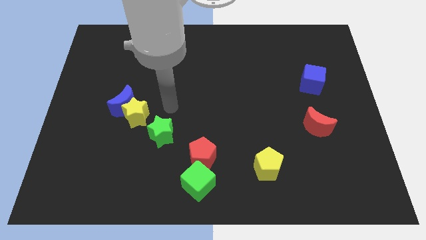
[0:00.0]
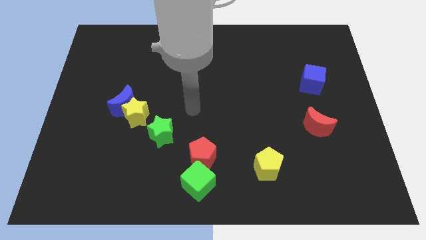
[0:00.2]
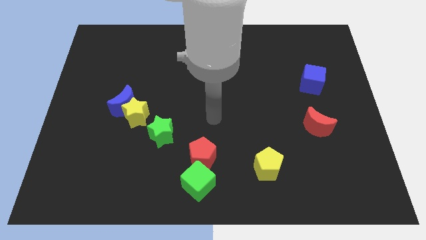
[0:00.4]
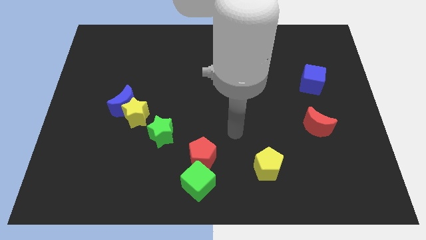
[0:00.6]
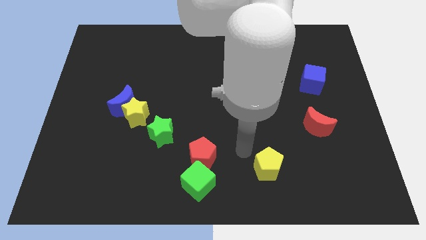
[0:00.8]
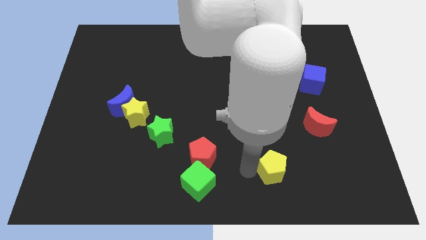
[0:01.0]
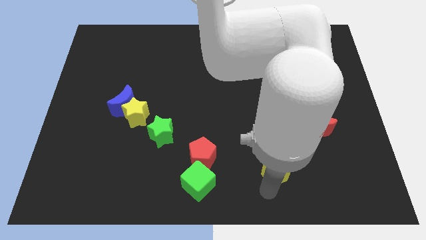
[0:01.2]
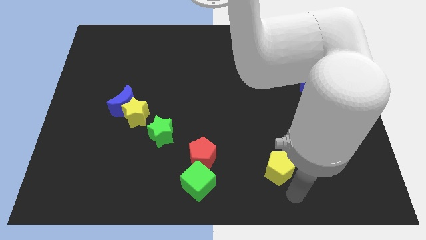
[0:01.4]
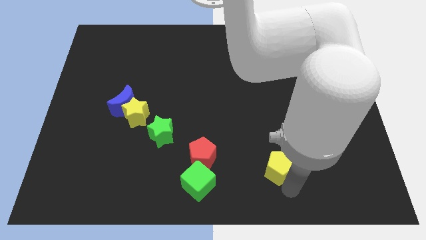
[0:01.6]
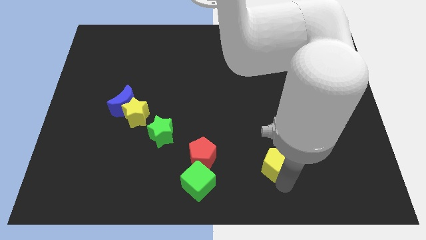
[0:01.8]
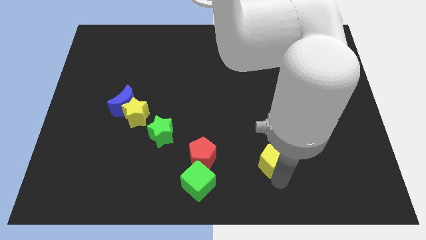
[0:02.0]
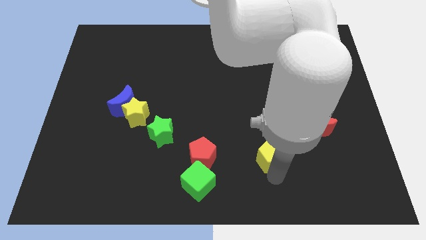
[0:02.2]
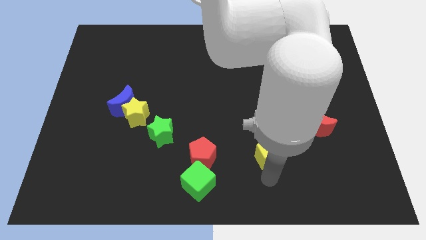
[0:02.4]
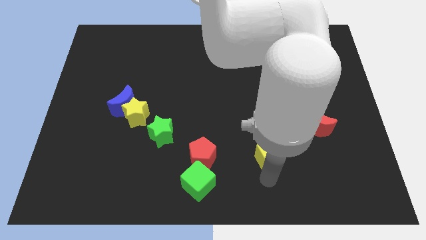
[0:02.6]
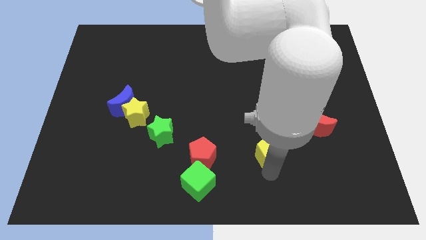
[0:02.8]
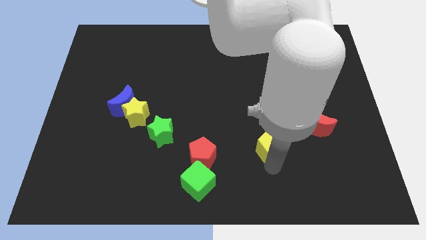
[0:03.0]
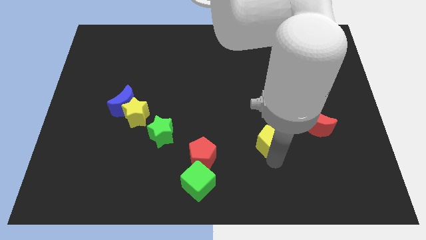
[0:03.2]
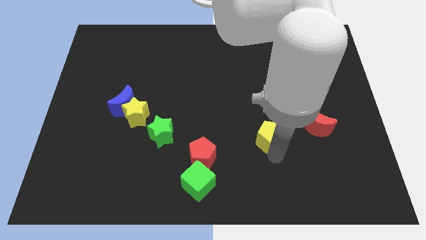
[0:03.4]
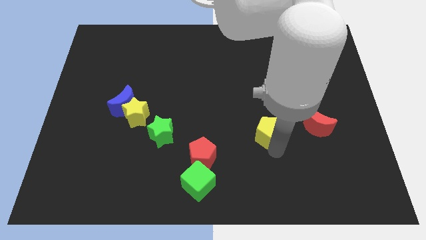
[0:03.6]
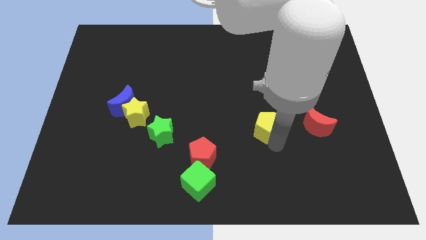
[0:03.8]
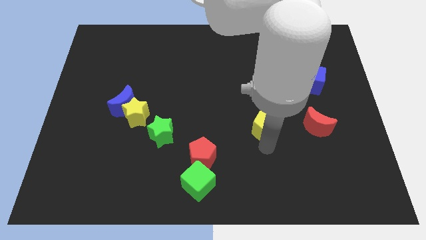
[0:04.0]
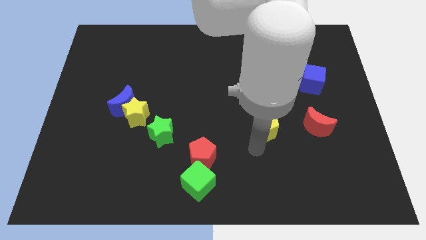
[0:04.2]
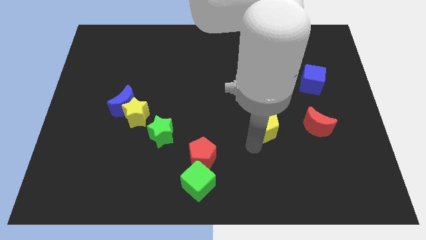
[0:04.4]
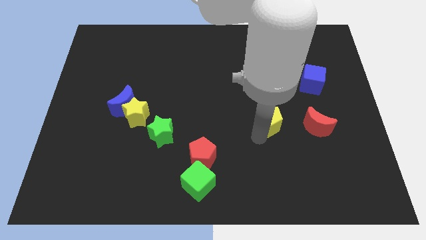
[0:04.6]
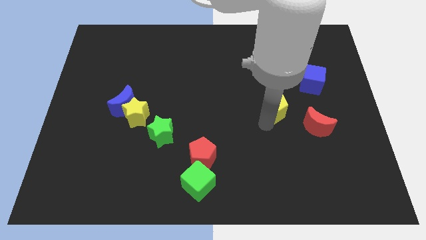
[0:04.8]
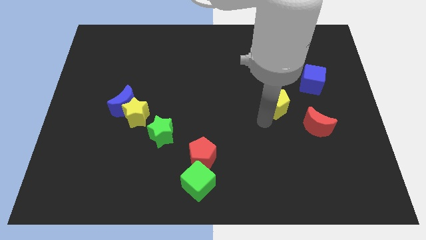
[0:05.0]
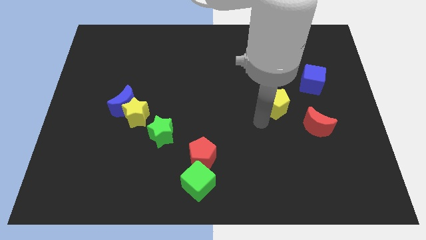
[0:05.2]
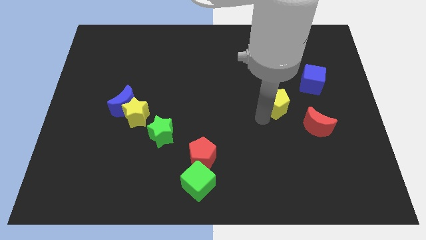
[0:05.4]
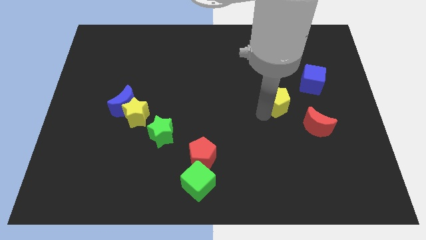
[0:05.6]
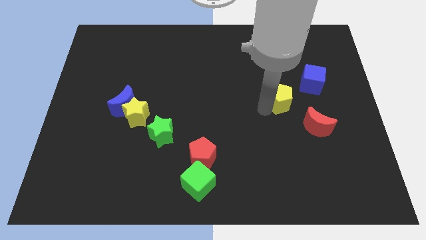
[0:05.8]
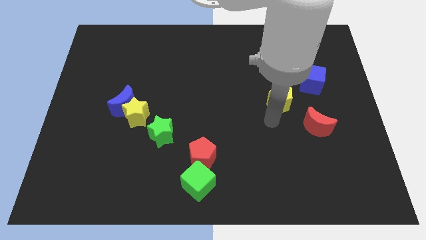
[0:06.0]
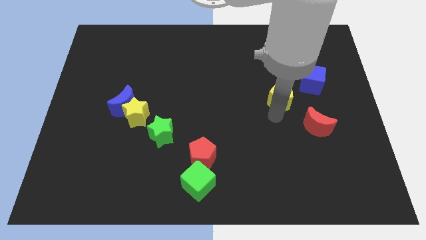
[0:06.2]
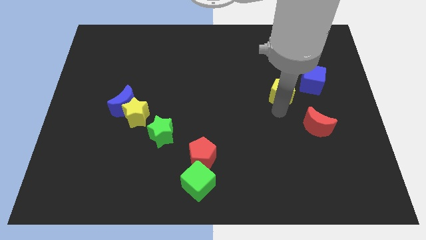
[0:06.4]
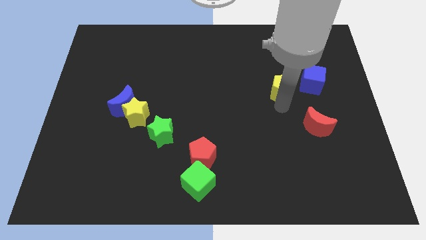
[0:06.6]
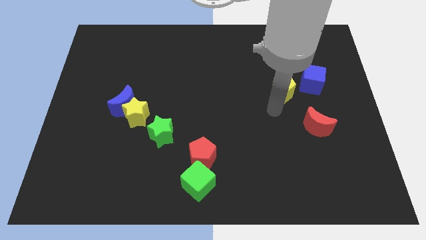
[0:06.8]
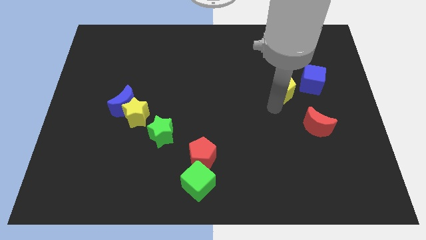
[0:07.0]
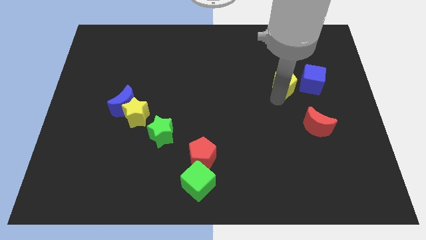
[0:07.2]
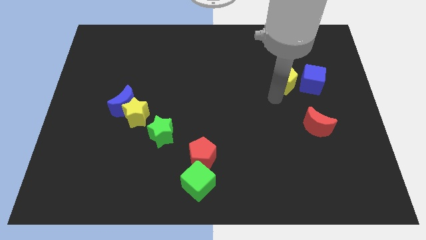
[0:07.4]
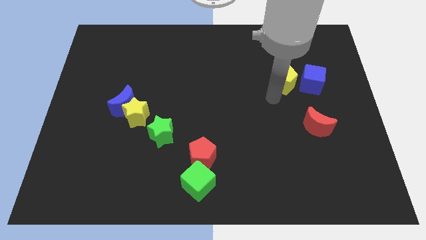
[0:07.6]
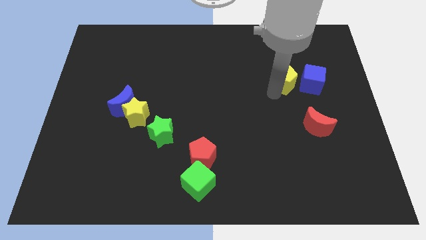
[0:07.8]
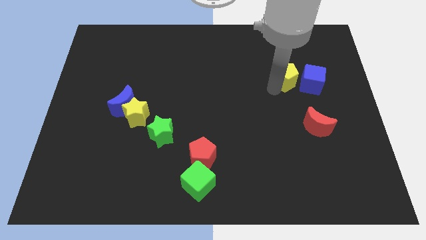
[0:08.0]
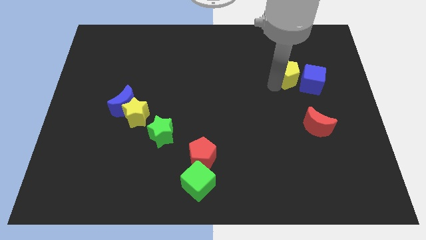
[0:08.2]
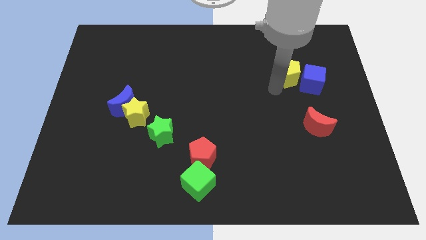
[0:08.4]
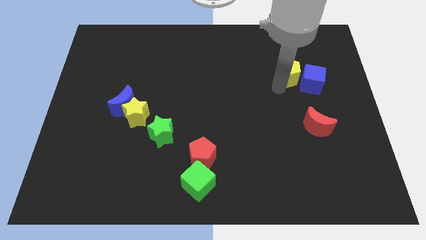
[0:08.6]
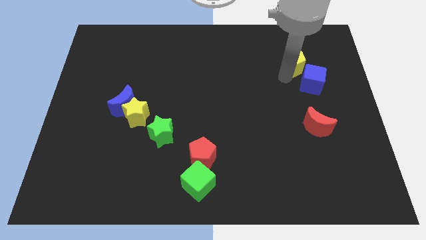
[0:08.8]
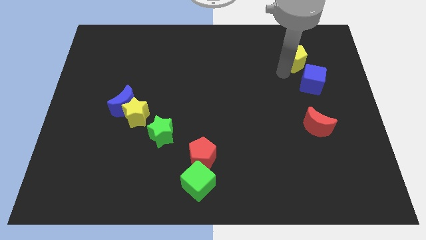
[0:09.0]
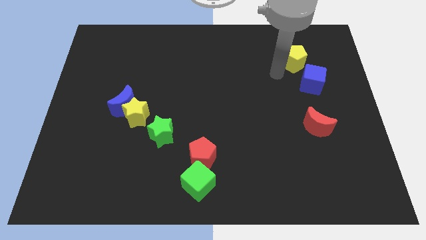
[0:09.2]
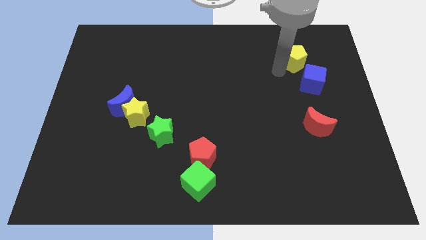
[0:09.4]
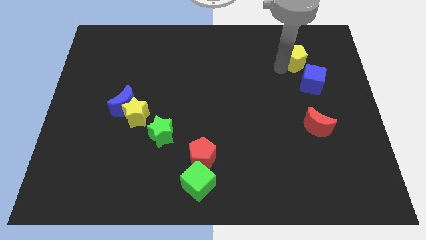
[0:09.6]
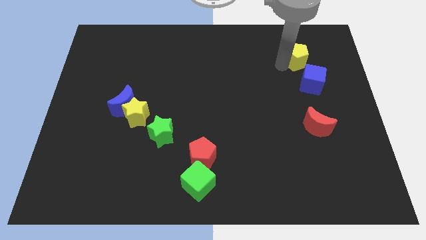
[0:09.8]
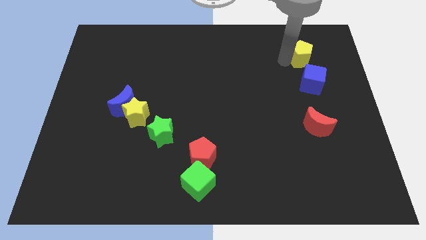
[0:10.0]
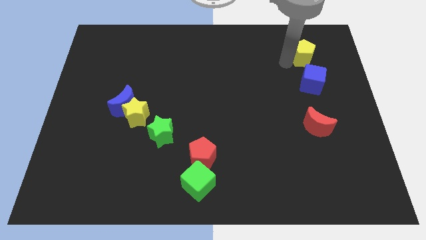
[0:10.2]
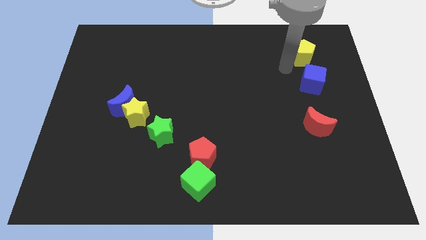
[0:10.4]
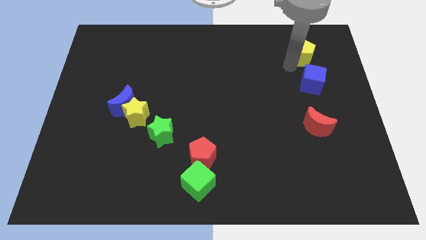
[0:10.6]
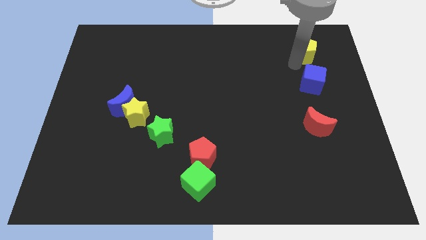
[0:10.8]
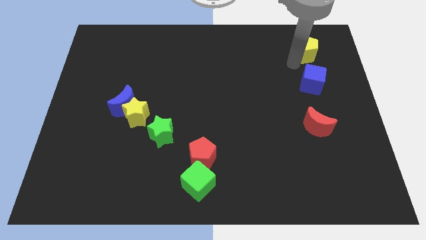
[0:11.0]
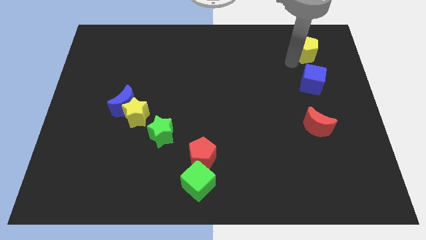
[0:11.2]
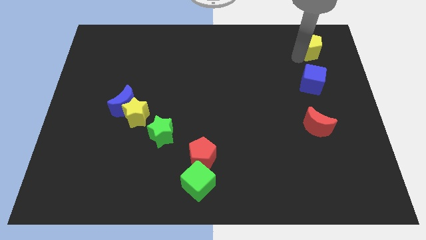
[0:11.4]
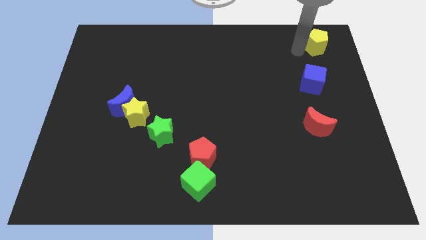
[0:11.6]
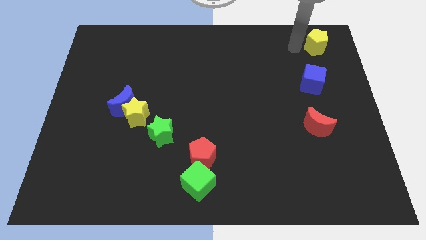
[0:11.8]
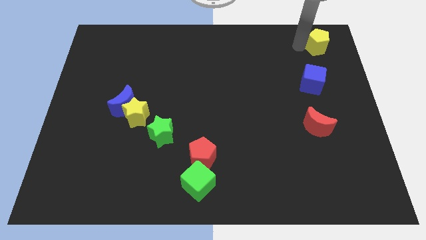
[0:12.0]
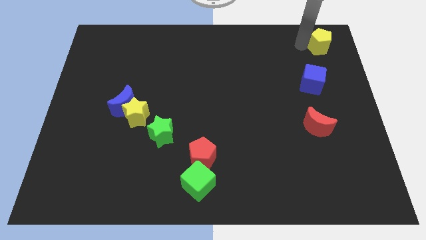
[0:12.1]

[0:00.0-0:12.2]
move the yellow pentagon to the top right of the board
